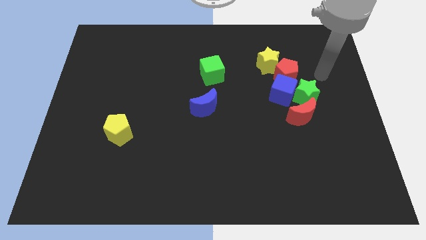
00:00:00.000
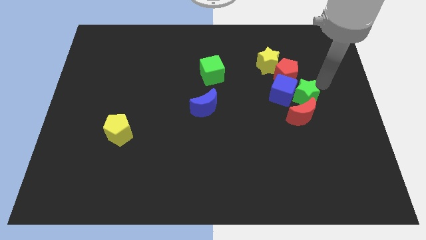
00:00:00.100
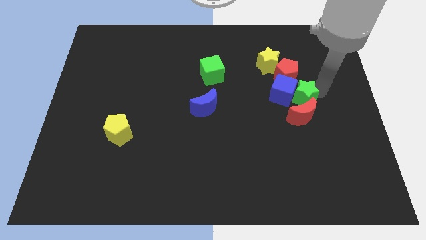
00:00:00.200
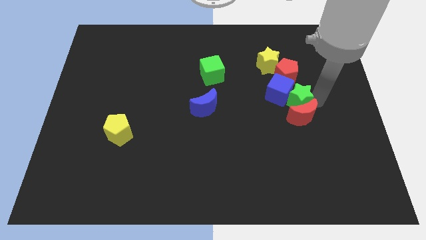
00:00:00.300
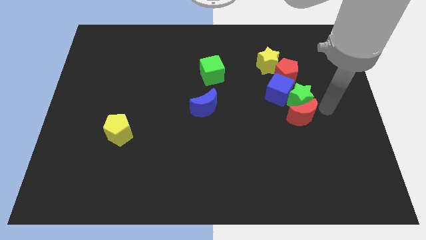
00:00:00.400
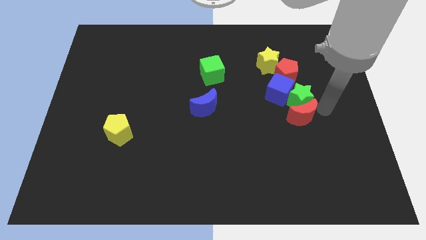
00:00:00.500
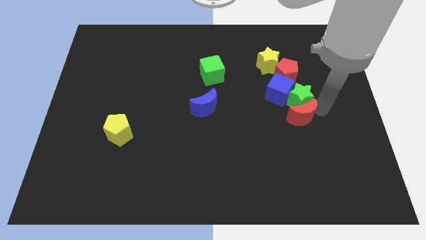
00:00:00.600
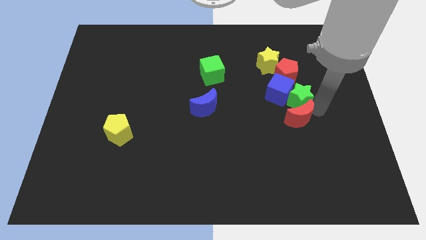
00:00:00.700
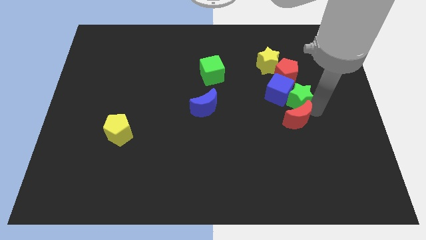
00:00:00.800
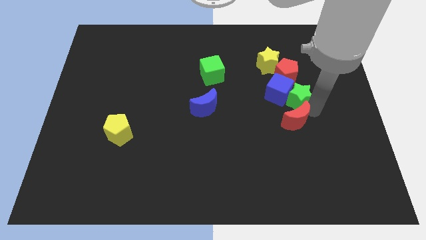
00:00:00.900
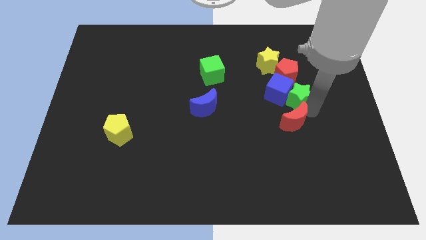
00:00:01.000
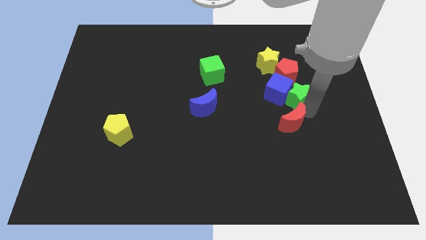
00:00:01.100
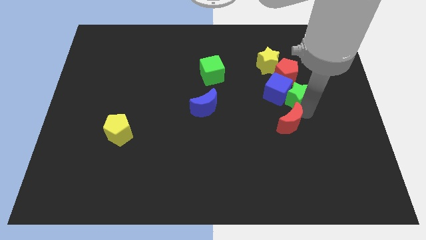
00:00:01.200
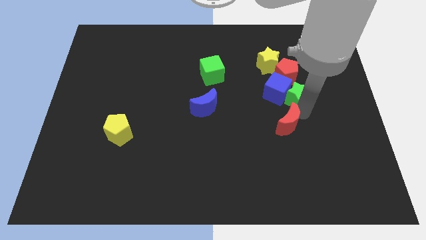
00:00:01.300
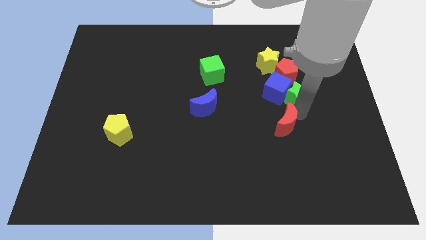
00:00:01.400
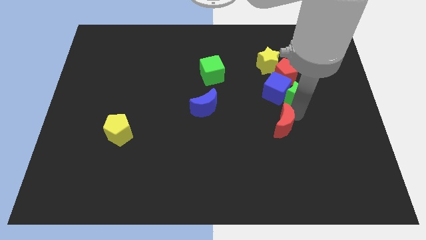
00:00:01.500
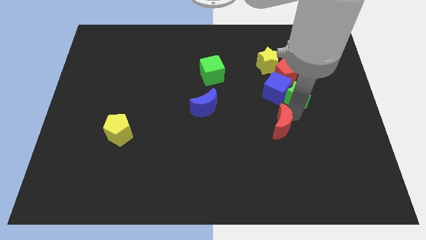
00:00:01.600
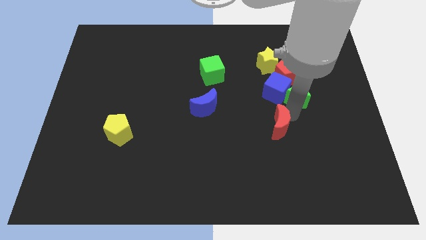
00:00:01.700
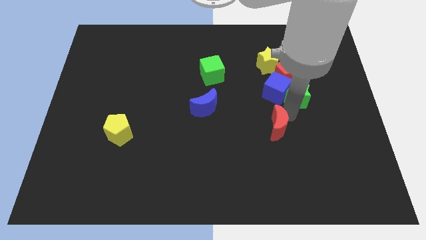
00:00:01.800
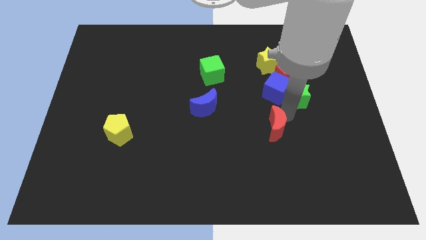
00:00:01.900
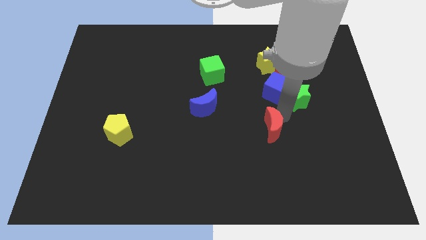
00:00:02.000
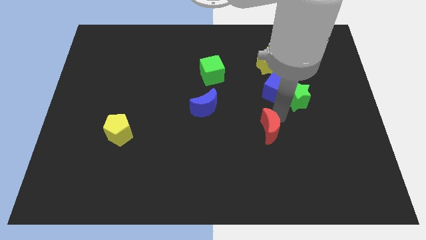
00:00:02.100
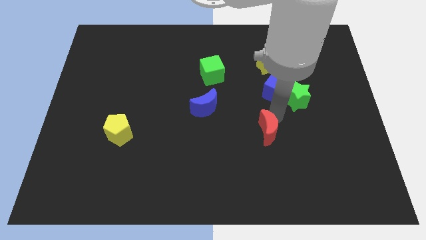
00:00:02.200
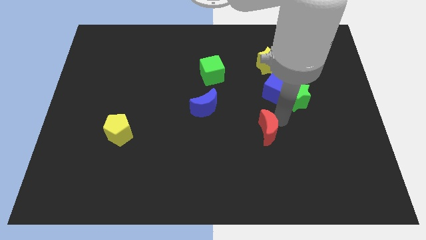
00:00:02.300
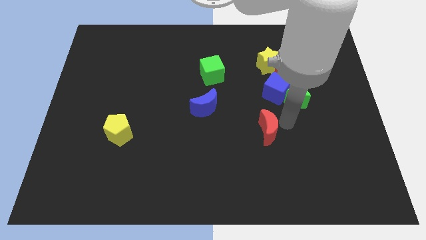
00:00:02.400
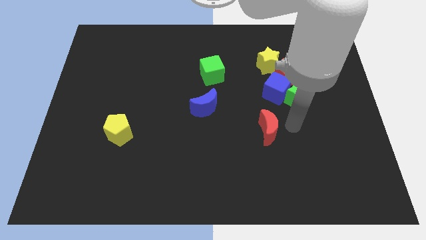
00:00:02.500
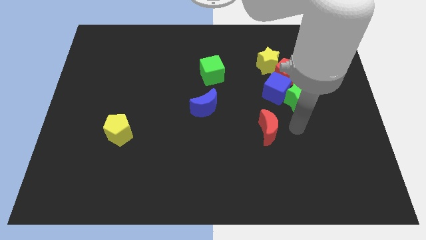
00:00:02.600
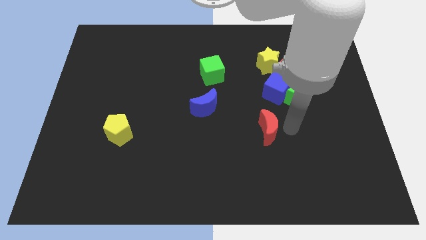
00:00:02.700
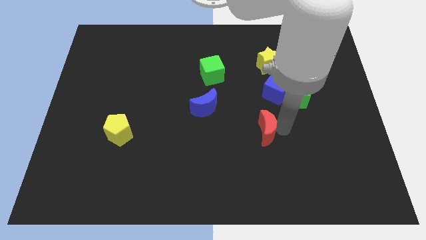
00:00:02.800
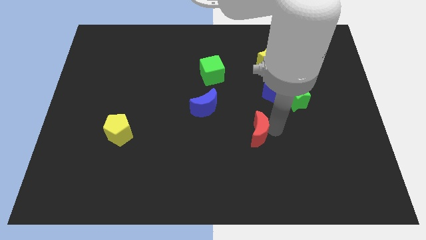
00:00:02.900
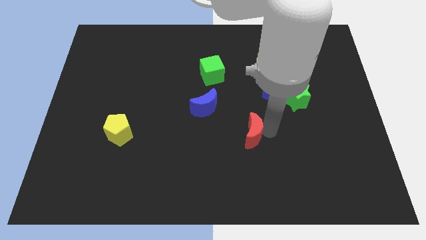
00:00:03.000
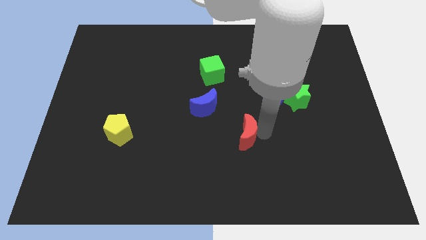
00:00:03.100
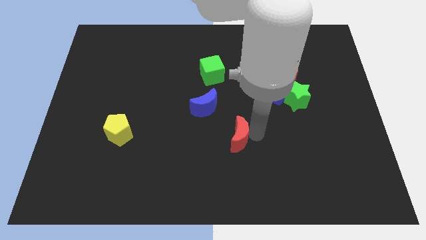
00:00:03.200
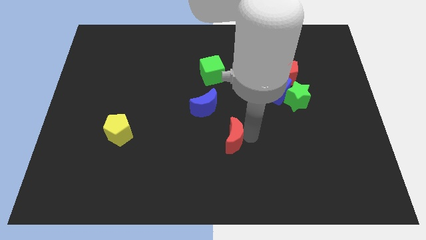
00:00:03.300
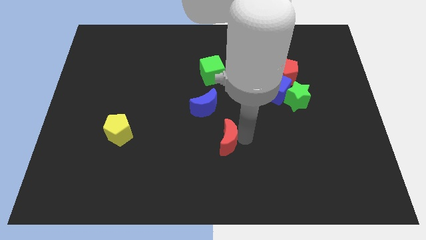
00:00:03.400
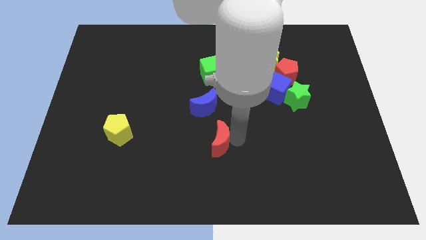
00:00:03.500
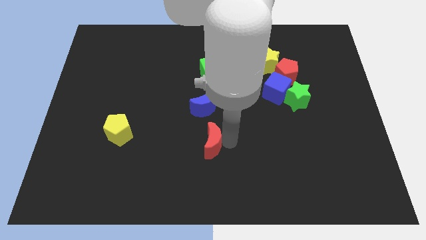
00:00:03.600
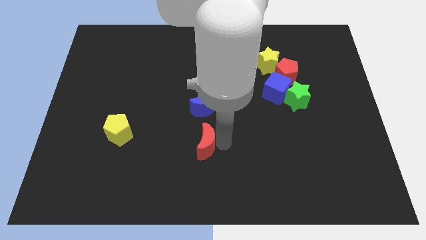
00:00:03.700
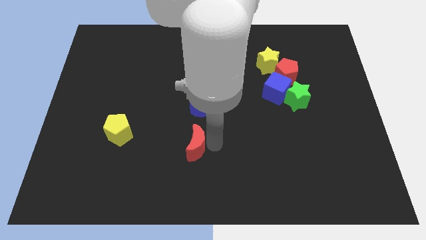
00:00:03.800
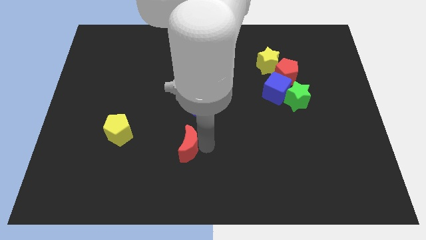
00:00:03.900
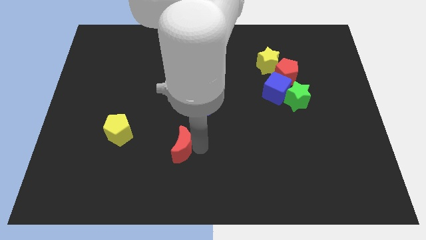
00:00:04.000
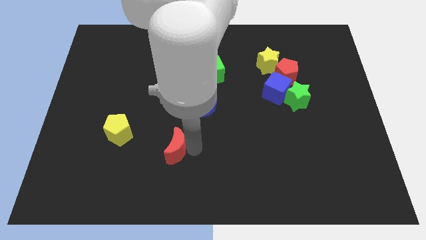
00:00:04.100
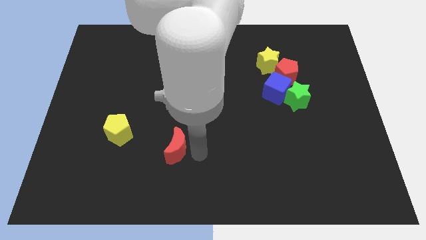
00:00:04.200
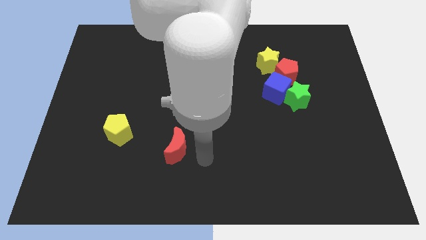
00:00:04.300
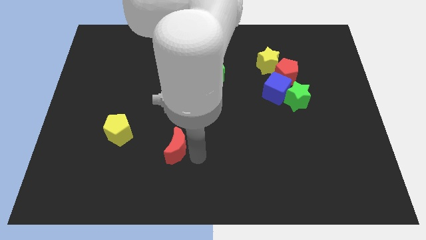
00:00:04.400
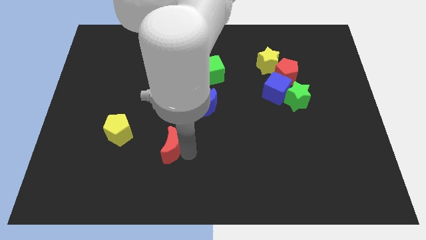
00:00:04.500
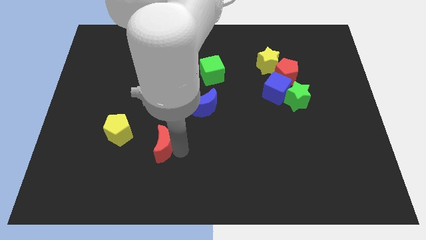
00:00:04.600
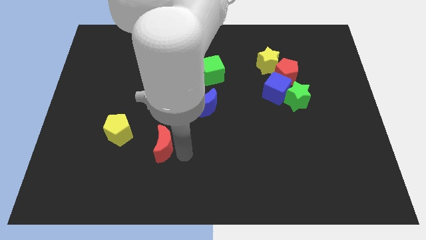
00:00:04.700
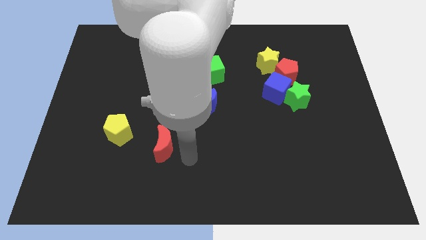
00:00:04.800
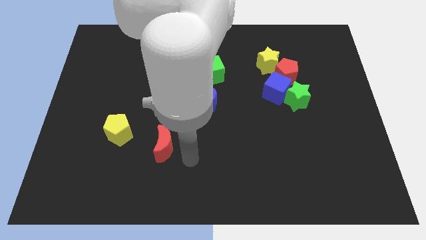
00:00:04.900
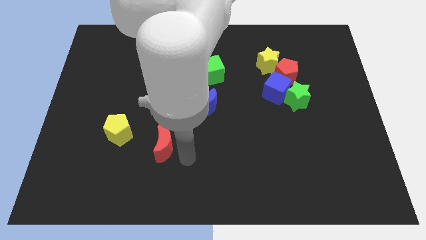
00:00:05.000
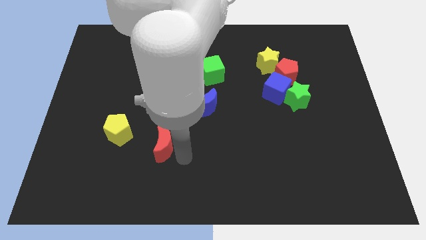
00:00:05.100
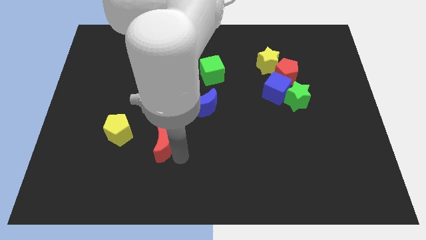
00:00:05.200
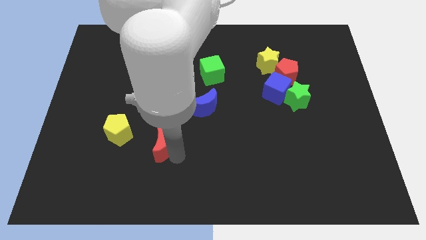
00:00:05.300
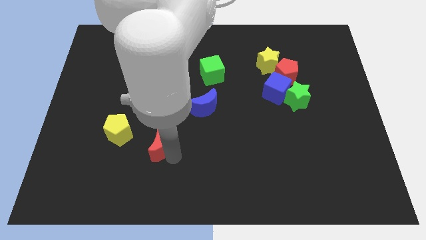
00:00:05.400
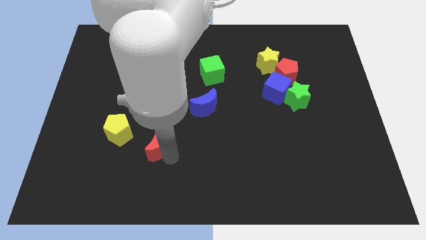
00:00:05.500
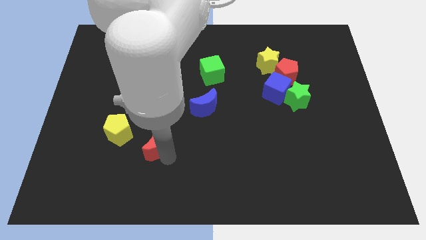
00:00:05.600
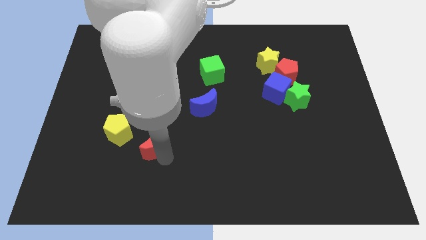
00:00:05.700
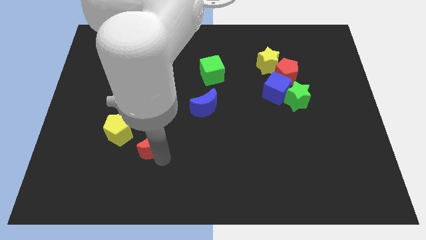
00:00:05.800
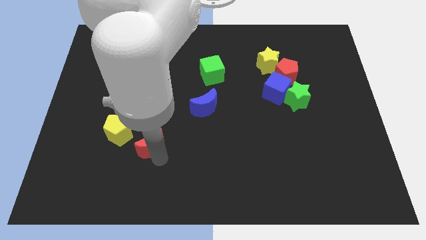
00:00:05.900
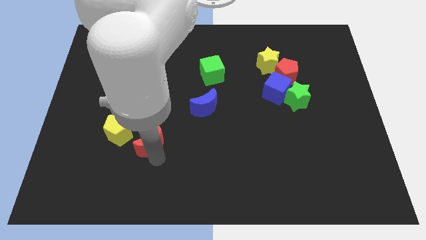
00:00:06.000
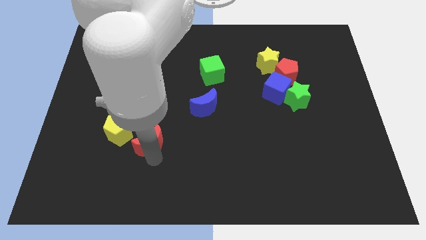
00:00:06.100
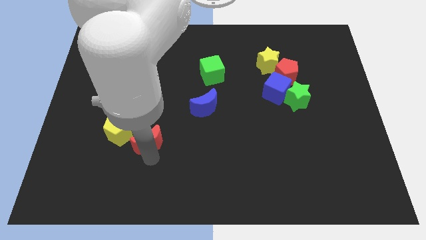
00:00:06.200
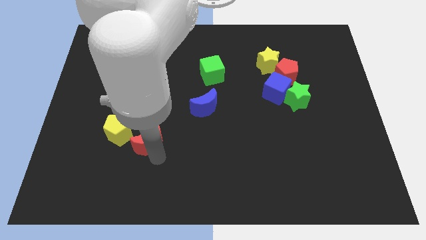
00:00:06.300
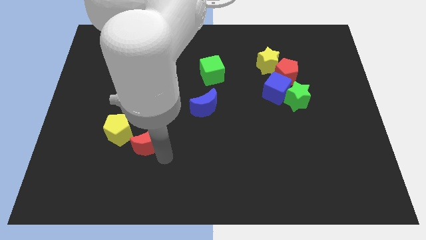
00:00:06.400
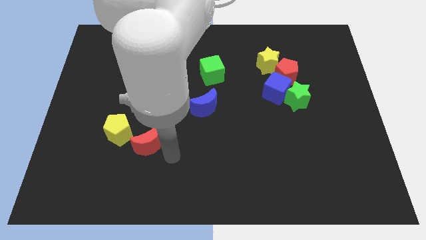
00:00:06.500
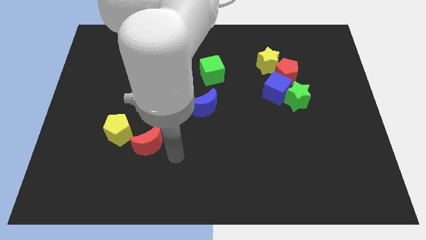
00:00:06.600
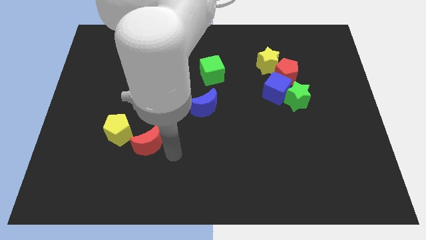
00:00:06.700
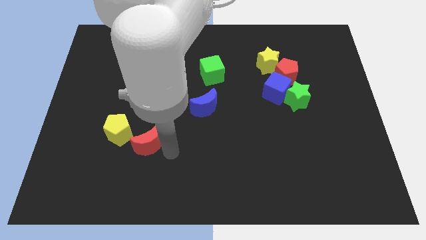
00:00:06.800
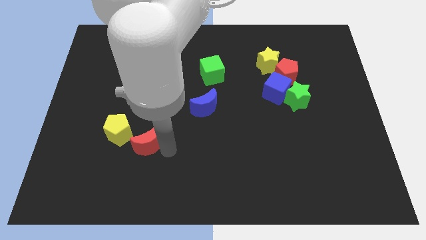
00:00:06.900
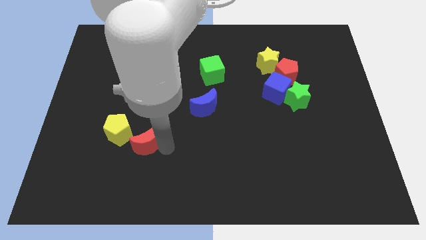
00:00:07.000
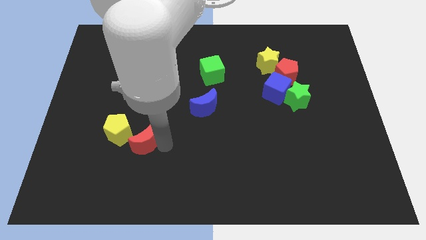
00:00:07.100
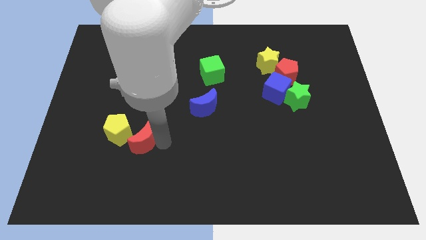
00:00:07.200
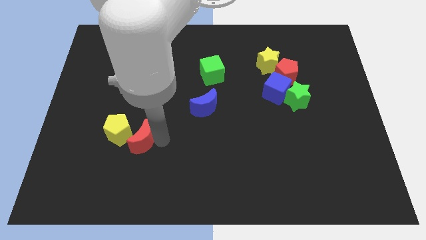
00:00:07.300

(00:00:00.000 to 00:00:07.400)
put the red moon next to the yellow pentagon
